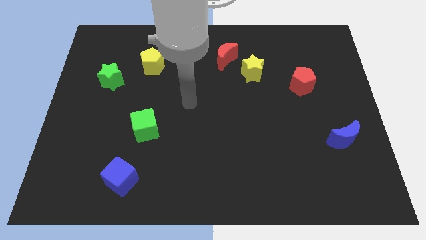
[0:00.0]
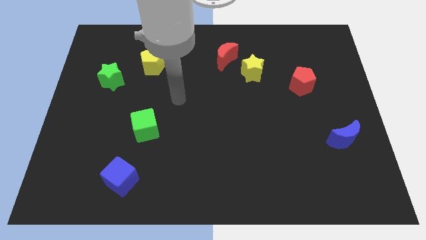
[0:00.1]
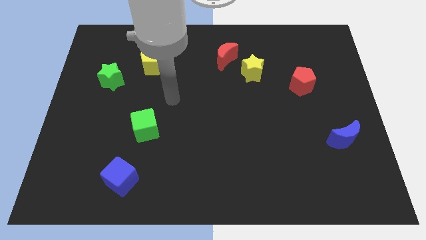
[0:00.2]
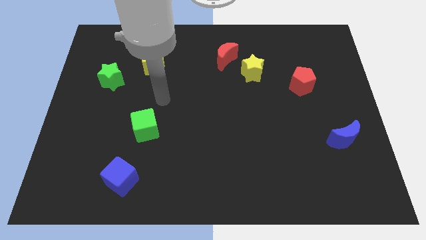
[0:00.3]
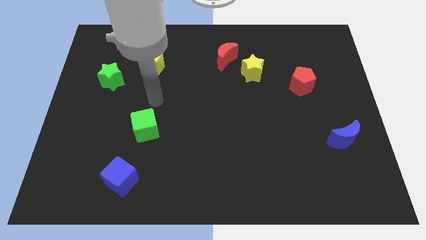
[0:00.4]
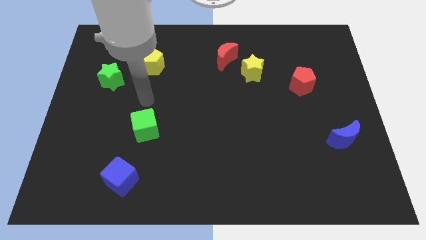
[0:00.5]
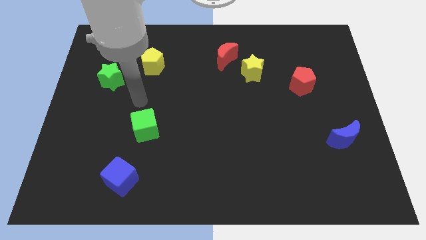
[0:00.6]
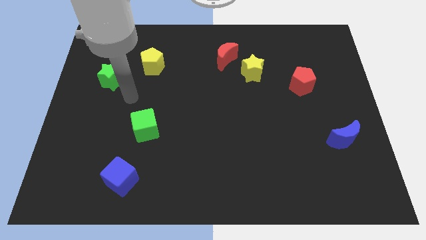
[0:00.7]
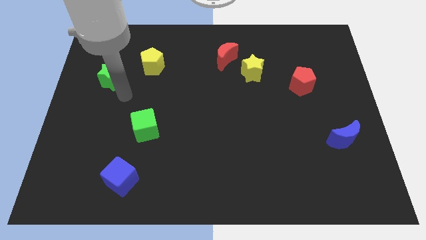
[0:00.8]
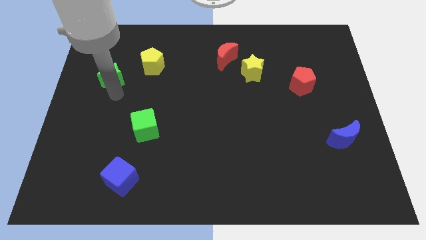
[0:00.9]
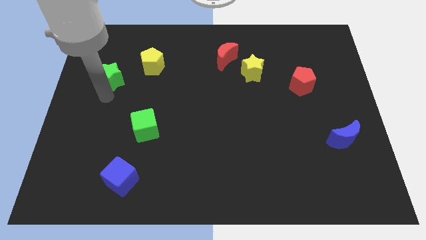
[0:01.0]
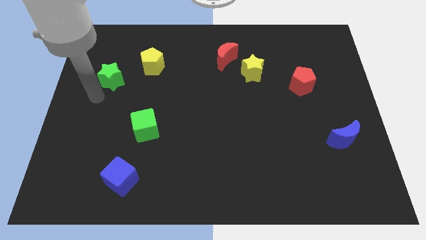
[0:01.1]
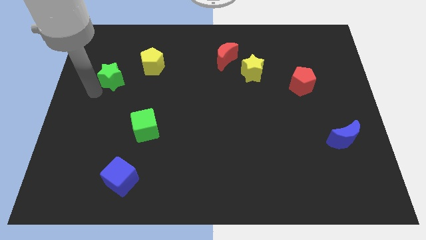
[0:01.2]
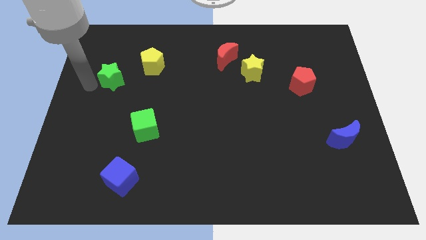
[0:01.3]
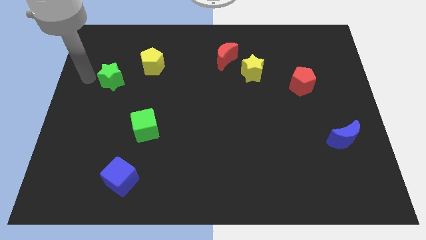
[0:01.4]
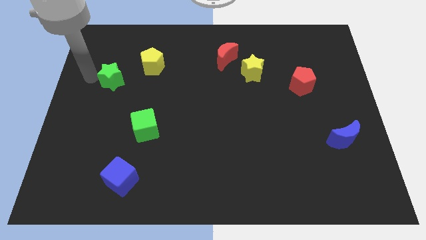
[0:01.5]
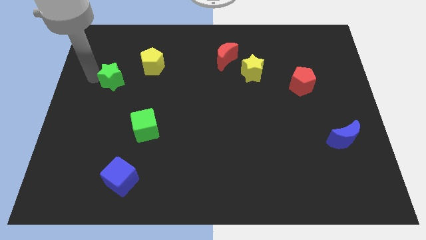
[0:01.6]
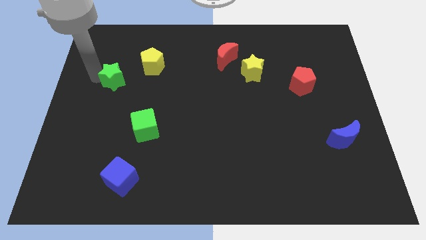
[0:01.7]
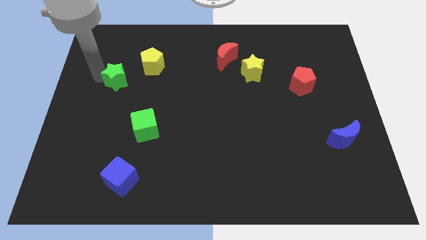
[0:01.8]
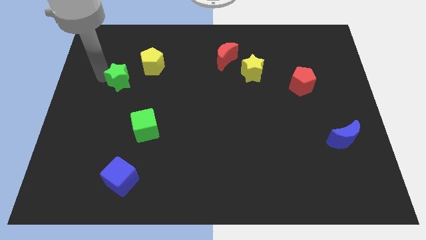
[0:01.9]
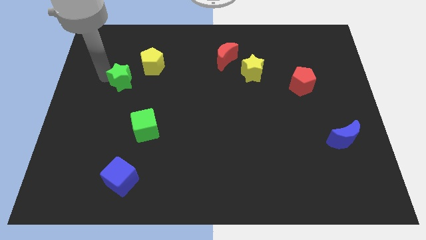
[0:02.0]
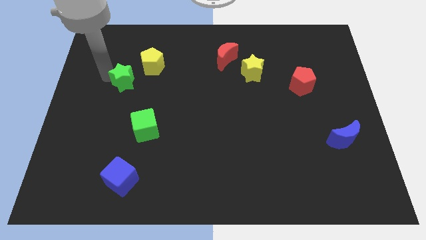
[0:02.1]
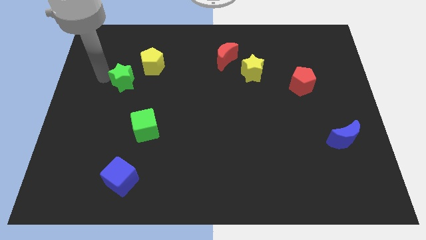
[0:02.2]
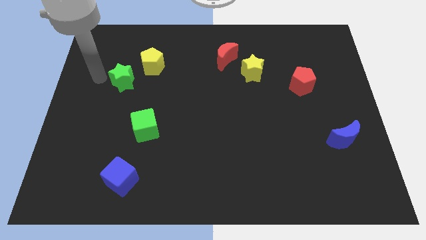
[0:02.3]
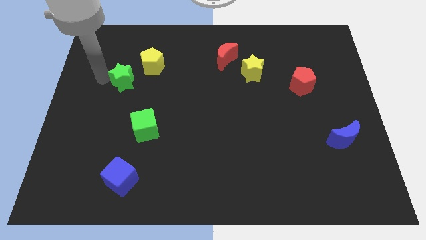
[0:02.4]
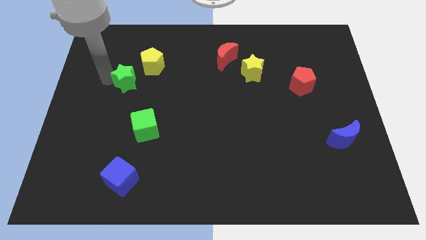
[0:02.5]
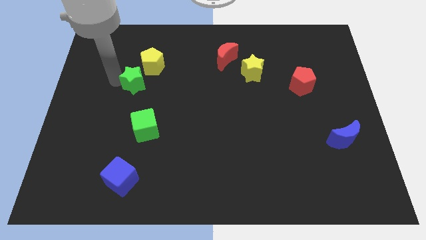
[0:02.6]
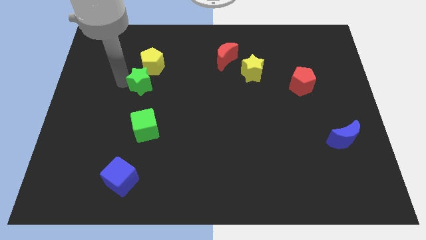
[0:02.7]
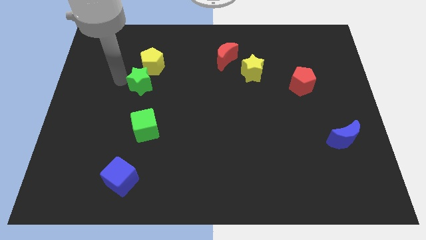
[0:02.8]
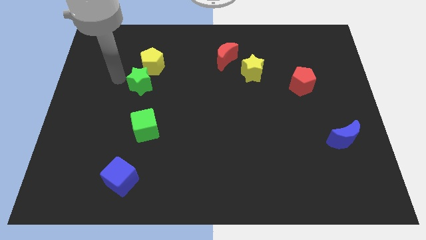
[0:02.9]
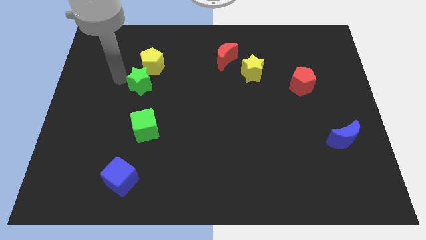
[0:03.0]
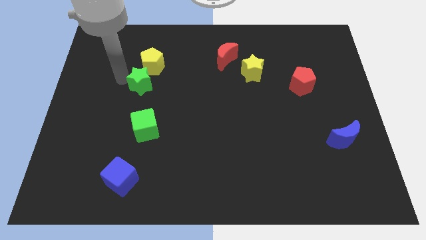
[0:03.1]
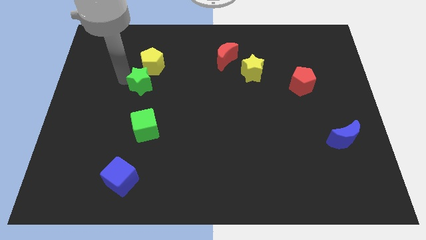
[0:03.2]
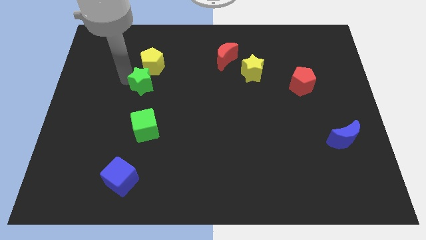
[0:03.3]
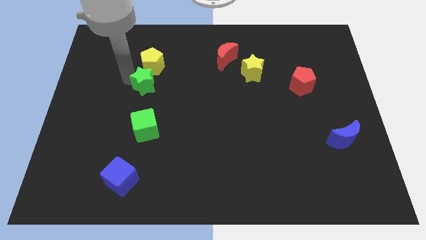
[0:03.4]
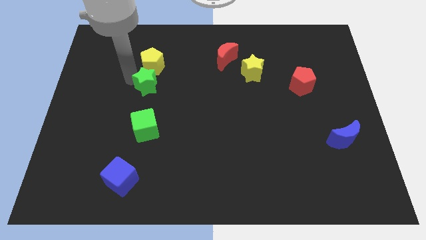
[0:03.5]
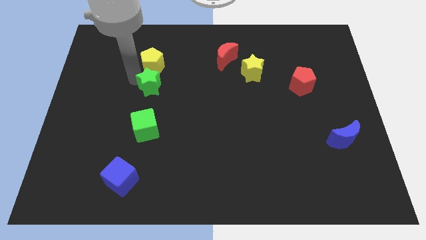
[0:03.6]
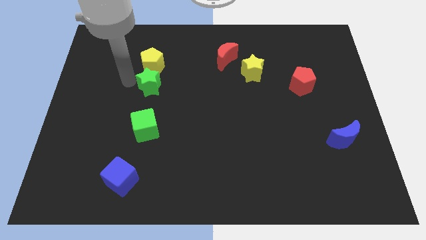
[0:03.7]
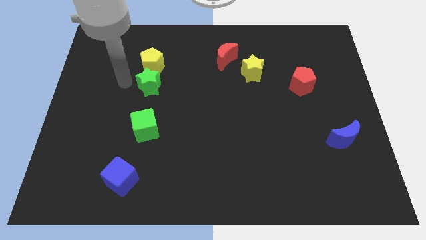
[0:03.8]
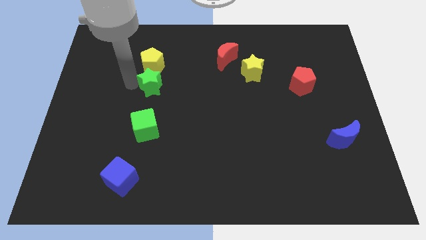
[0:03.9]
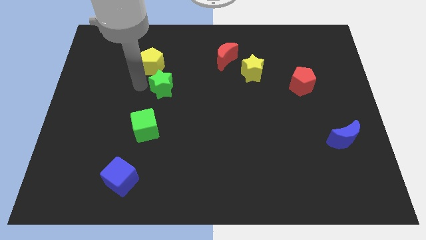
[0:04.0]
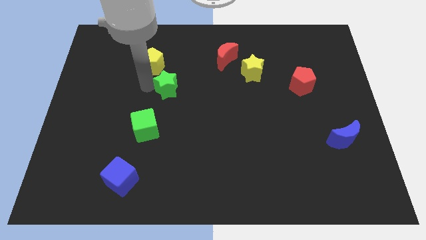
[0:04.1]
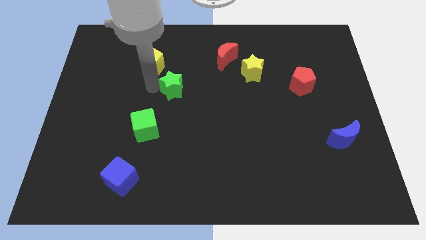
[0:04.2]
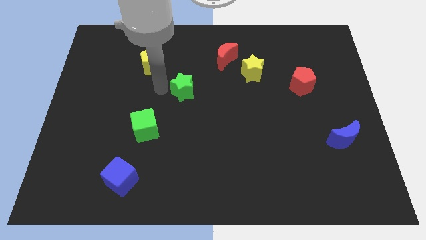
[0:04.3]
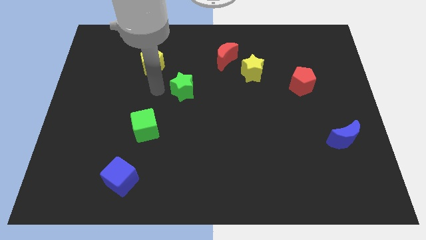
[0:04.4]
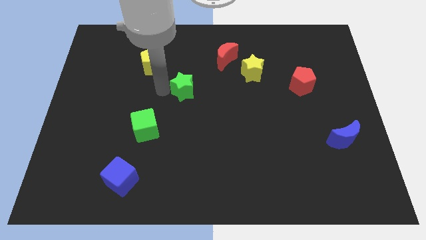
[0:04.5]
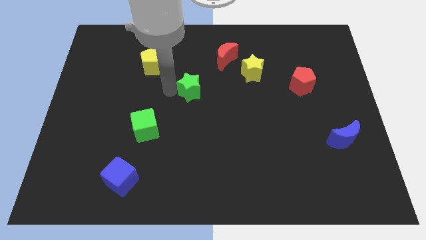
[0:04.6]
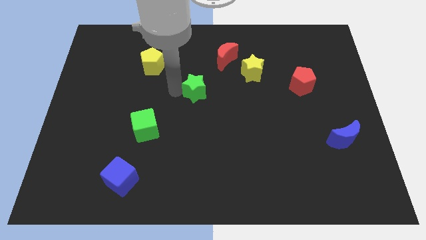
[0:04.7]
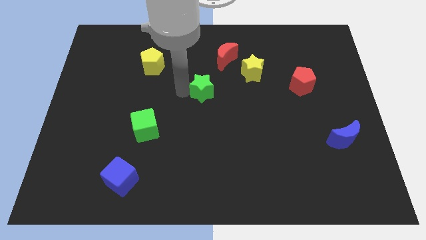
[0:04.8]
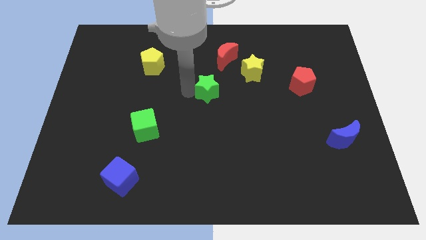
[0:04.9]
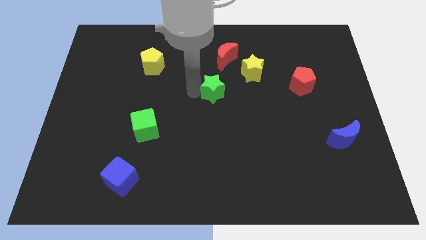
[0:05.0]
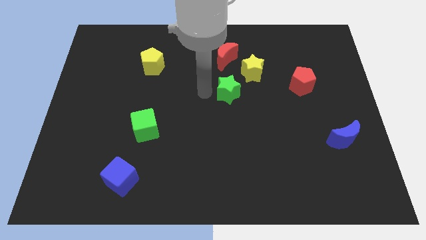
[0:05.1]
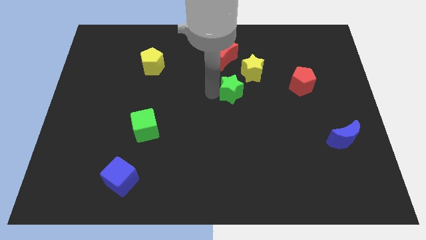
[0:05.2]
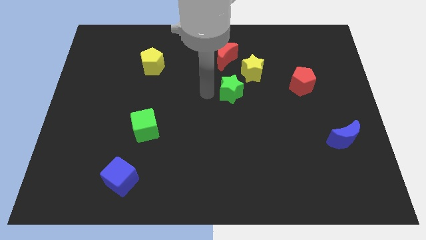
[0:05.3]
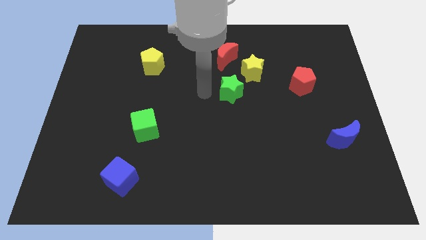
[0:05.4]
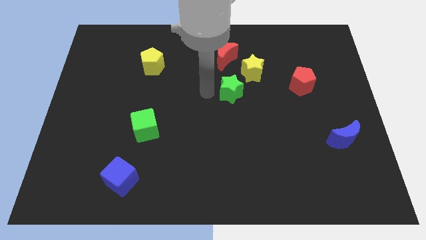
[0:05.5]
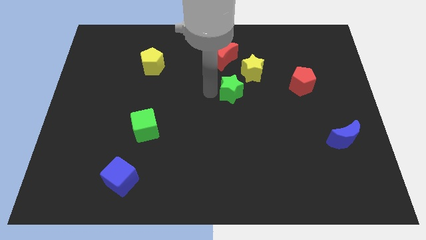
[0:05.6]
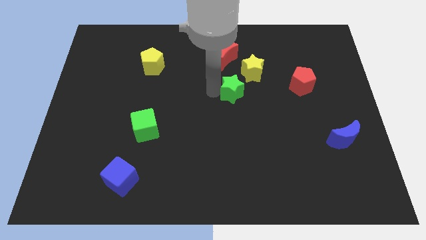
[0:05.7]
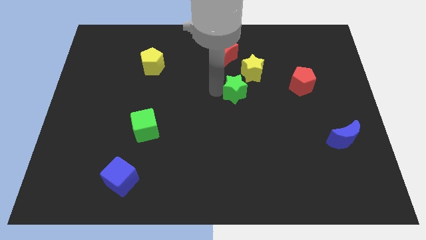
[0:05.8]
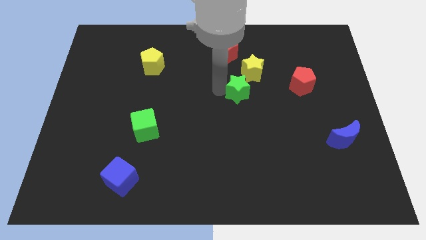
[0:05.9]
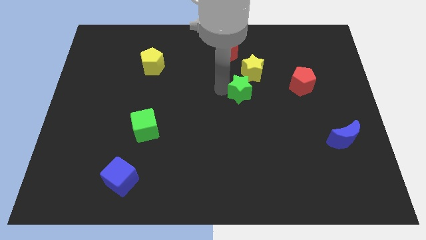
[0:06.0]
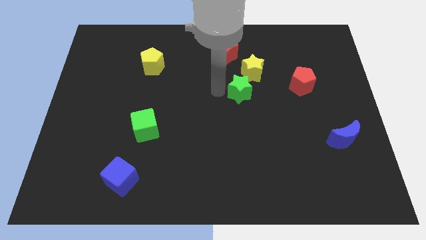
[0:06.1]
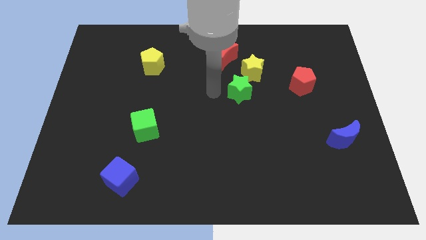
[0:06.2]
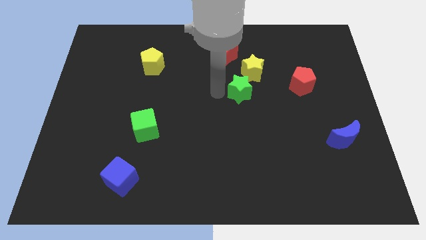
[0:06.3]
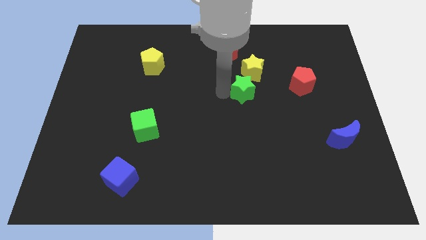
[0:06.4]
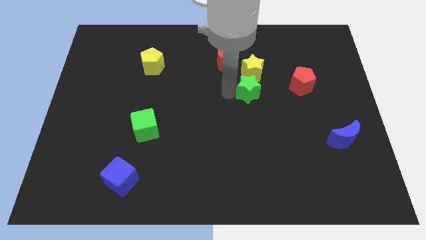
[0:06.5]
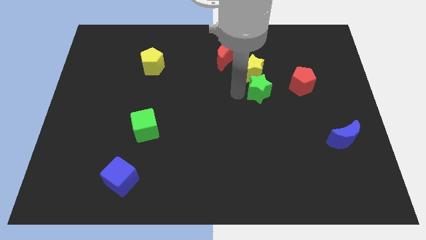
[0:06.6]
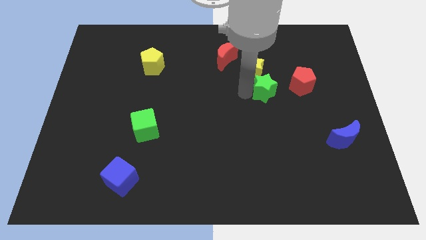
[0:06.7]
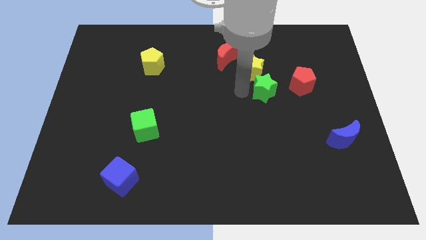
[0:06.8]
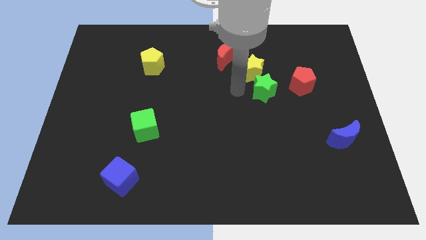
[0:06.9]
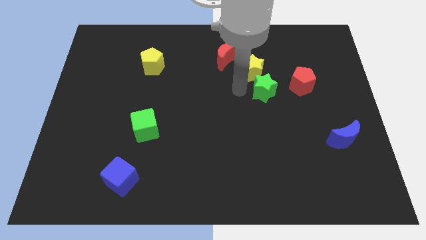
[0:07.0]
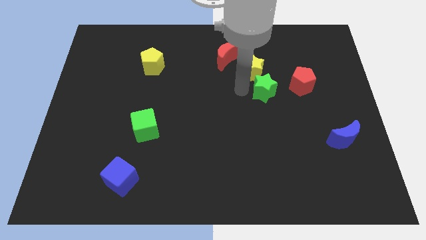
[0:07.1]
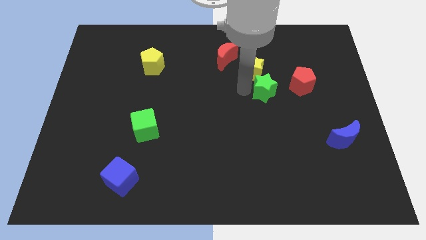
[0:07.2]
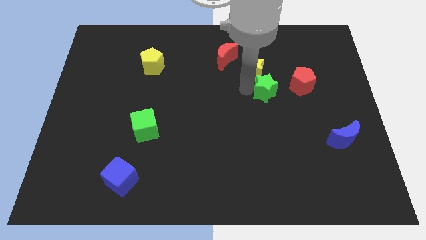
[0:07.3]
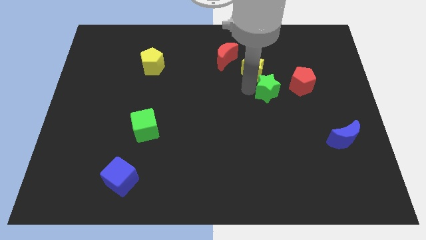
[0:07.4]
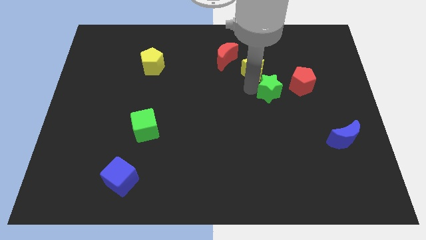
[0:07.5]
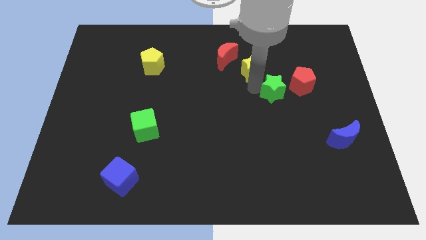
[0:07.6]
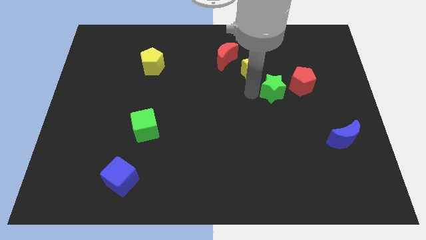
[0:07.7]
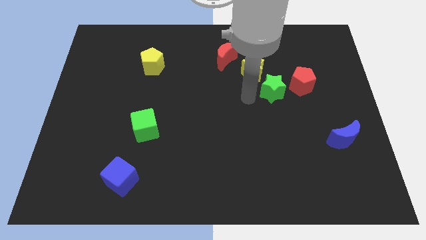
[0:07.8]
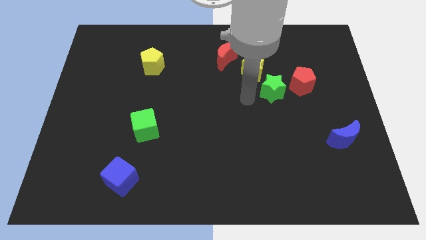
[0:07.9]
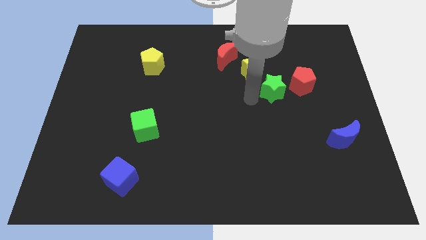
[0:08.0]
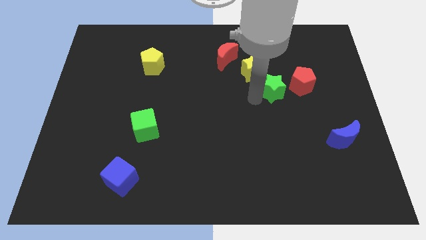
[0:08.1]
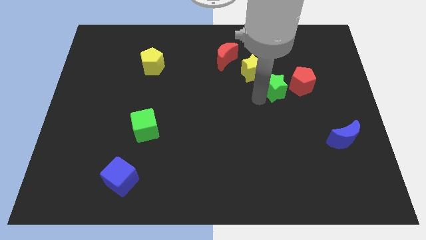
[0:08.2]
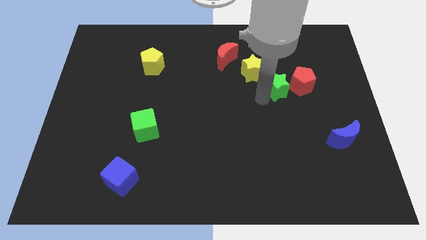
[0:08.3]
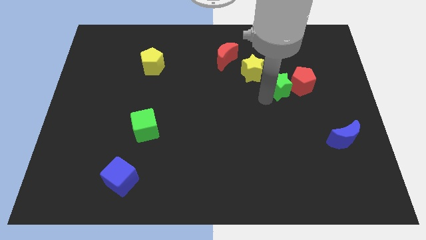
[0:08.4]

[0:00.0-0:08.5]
slide the green star next to the red pentagon
